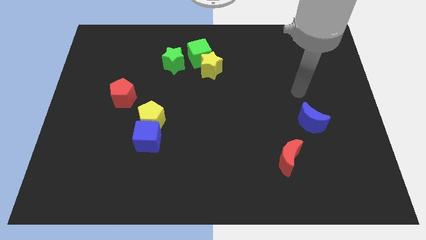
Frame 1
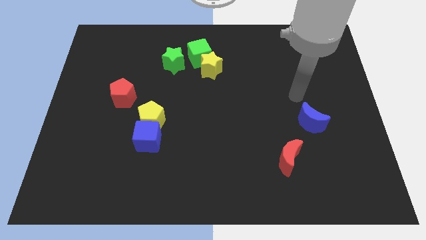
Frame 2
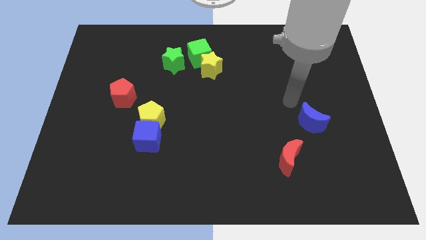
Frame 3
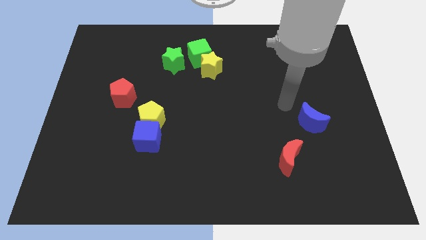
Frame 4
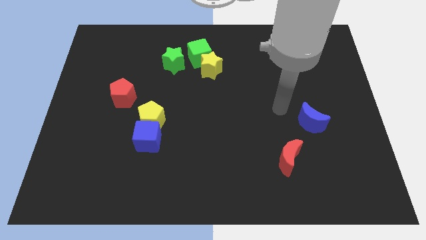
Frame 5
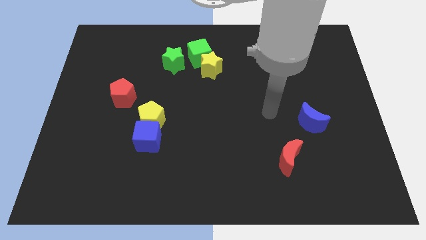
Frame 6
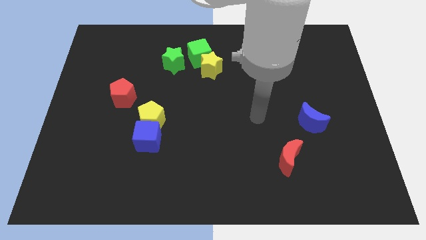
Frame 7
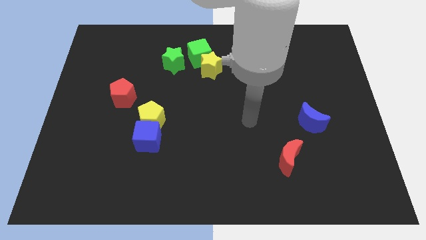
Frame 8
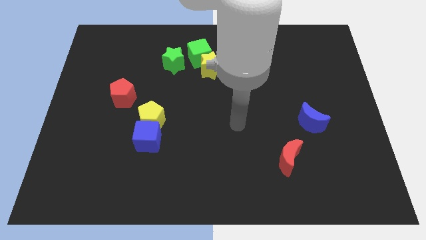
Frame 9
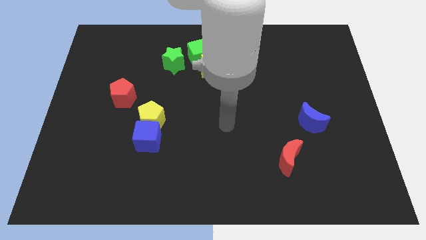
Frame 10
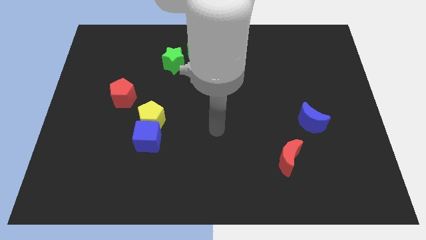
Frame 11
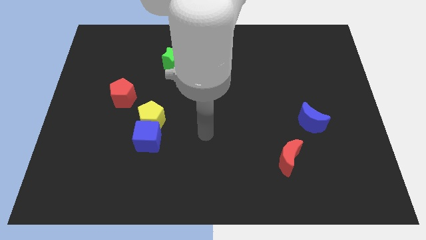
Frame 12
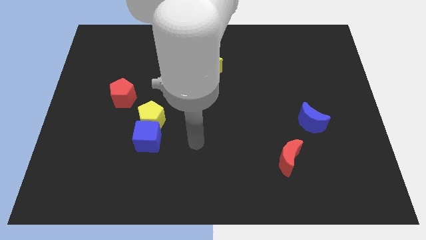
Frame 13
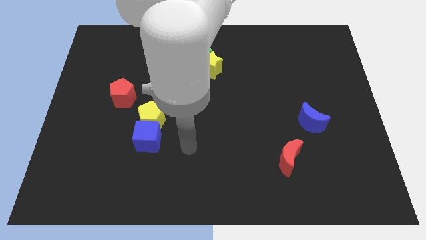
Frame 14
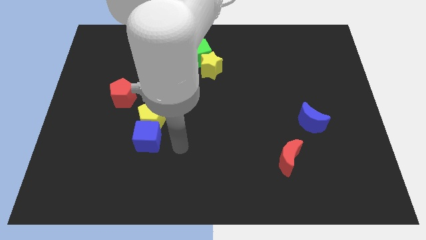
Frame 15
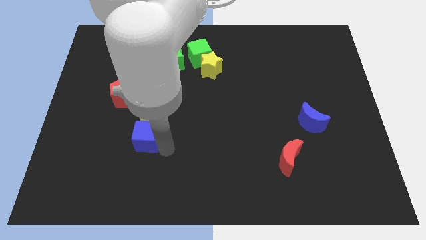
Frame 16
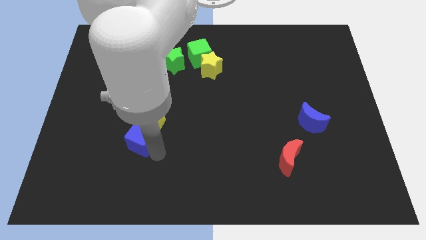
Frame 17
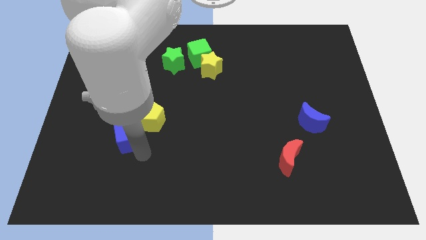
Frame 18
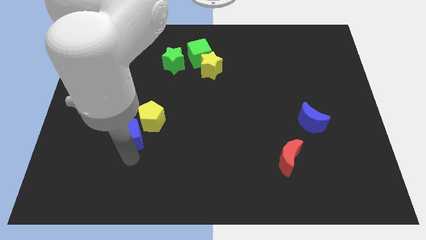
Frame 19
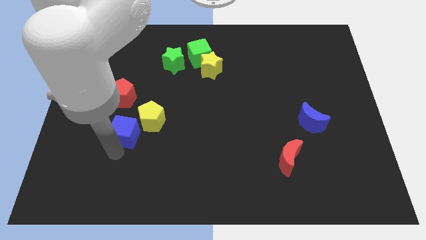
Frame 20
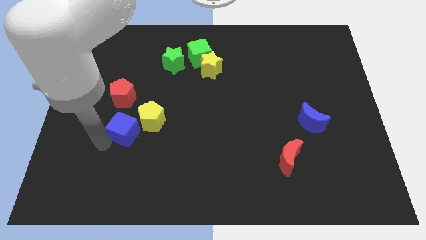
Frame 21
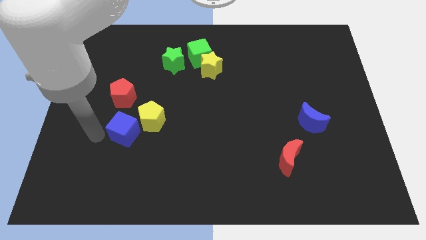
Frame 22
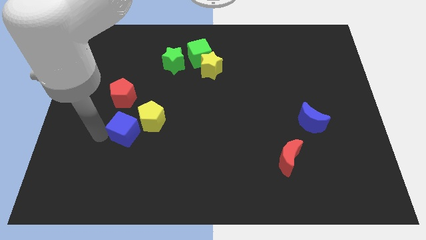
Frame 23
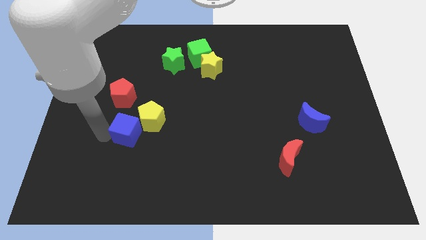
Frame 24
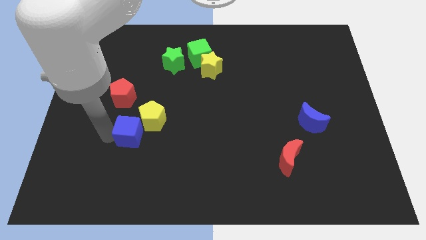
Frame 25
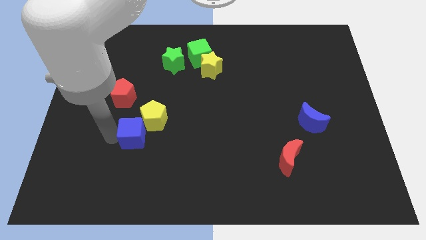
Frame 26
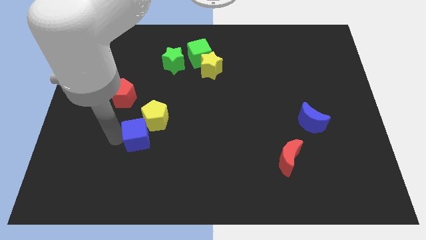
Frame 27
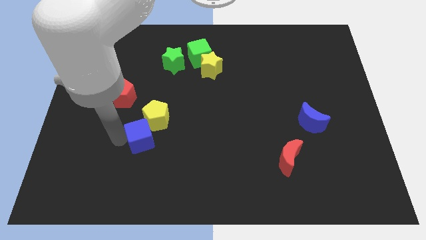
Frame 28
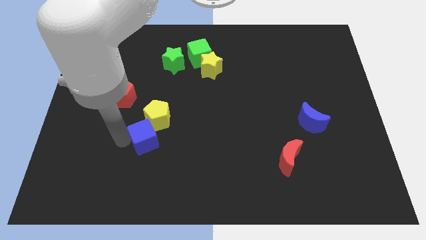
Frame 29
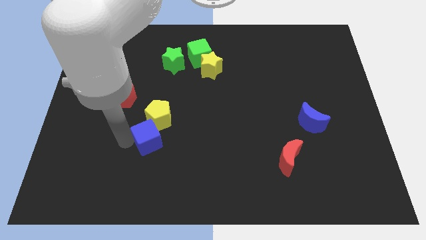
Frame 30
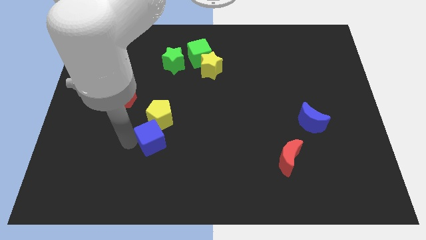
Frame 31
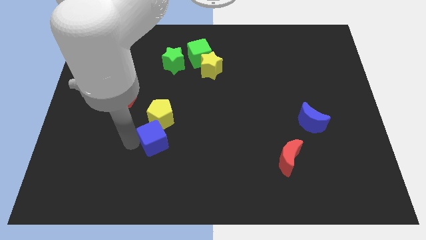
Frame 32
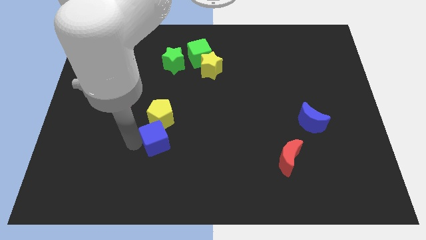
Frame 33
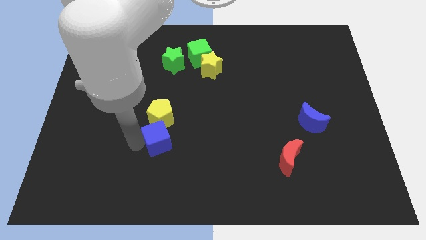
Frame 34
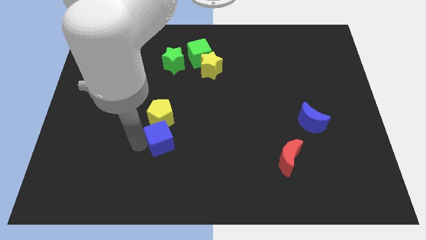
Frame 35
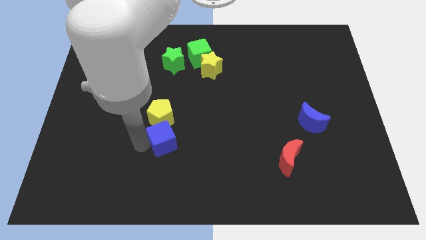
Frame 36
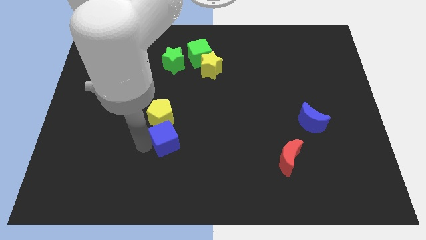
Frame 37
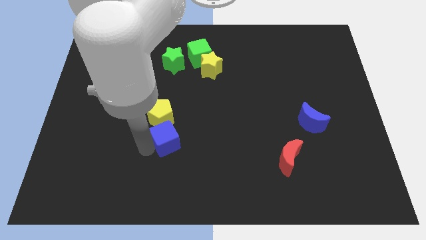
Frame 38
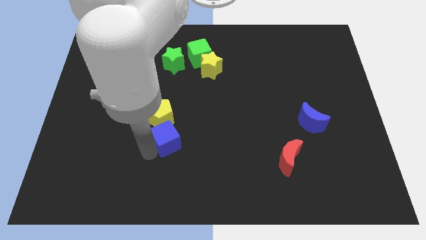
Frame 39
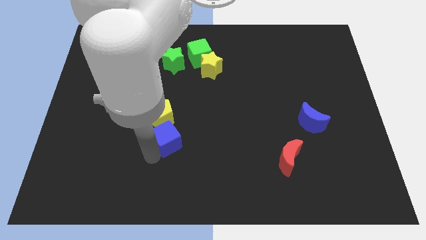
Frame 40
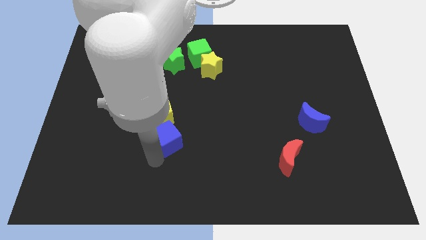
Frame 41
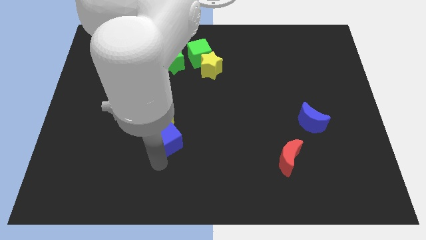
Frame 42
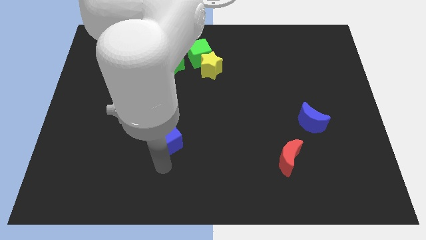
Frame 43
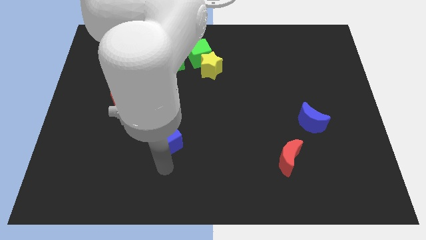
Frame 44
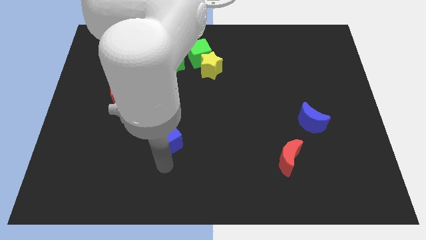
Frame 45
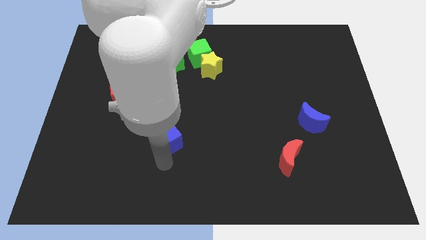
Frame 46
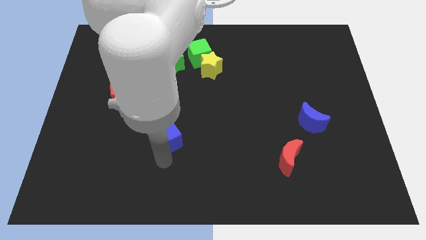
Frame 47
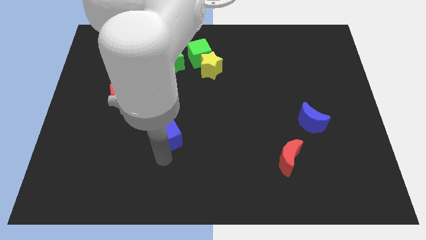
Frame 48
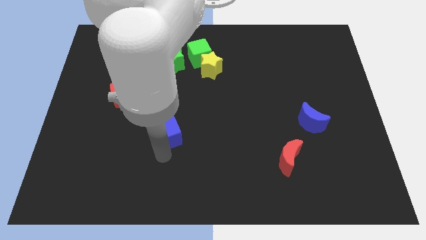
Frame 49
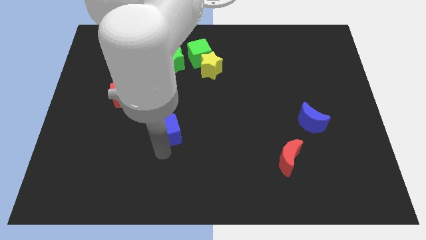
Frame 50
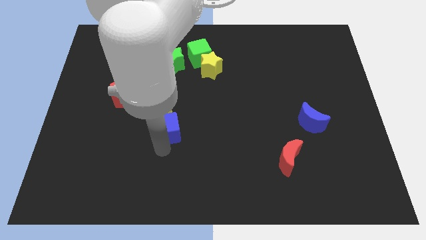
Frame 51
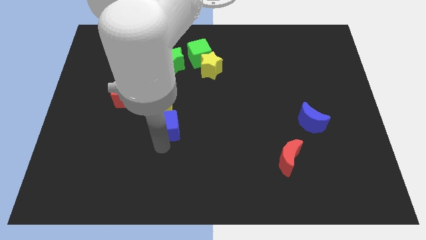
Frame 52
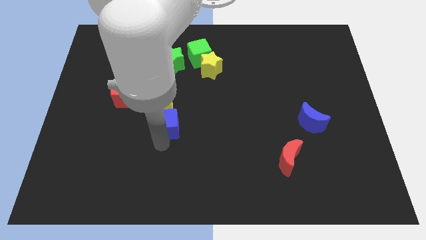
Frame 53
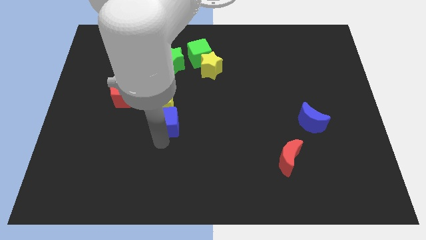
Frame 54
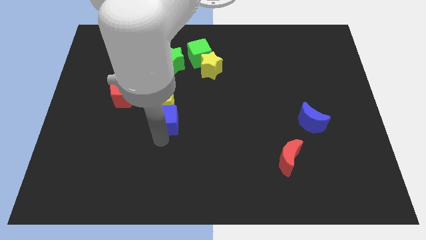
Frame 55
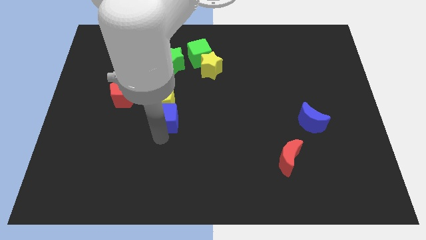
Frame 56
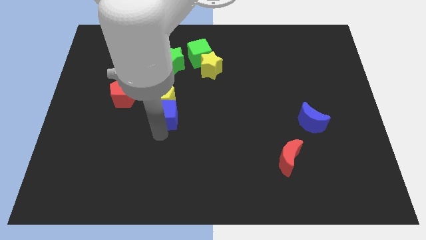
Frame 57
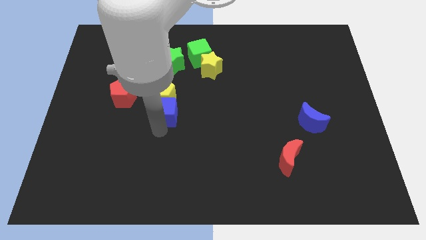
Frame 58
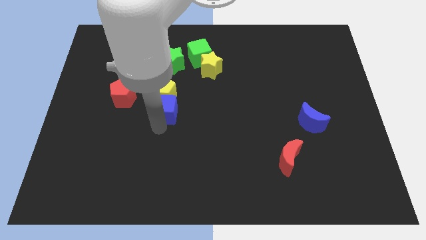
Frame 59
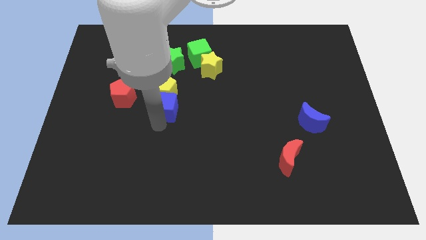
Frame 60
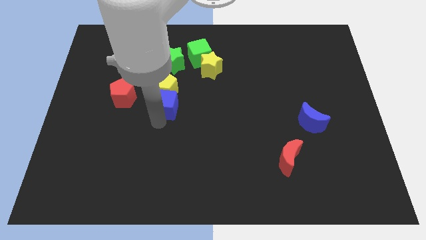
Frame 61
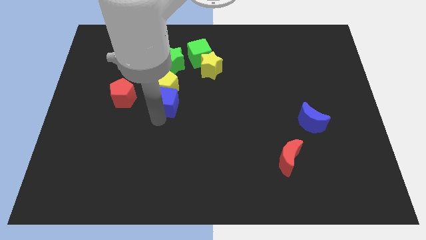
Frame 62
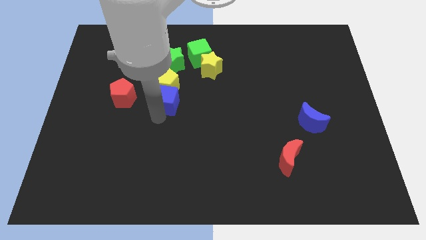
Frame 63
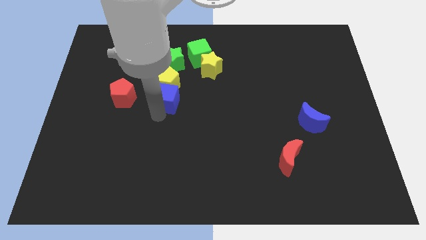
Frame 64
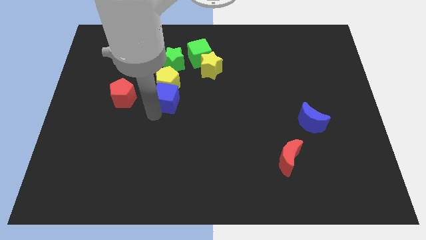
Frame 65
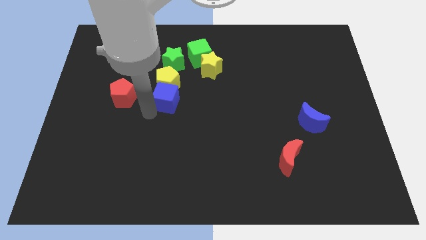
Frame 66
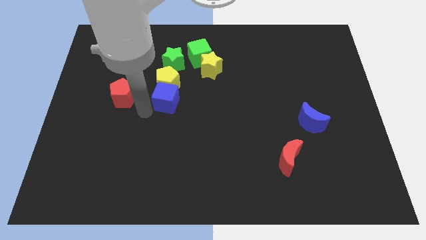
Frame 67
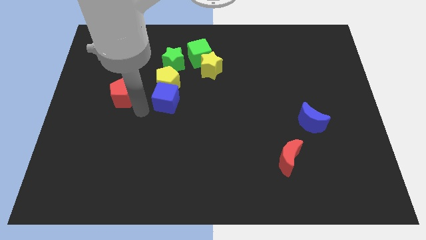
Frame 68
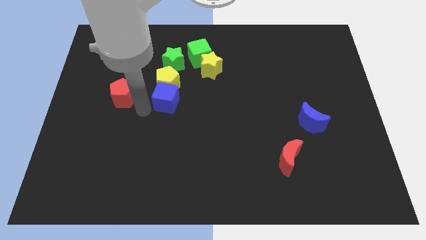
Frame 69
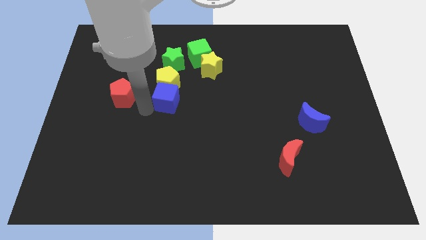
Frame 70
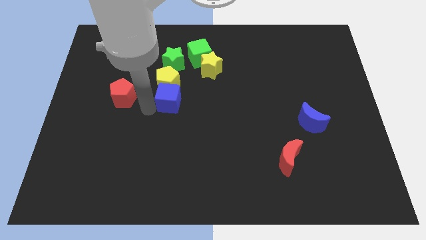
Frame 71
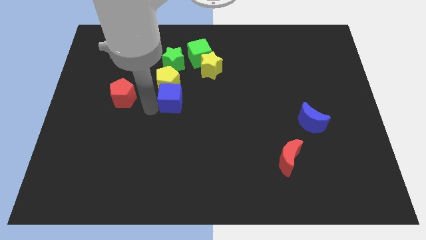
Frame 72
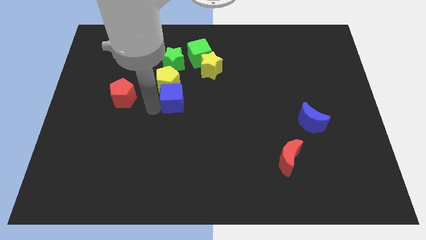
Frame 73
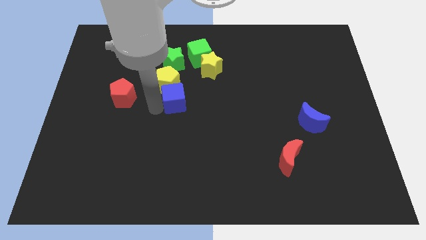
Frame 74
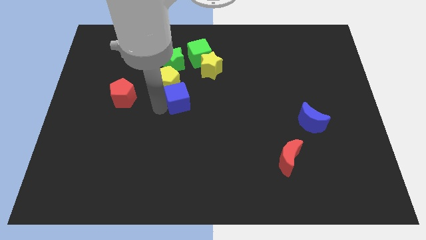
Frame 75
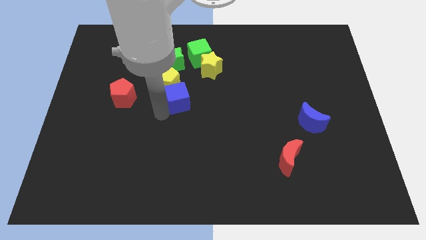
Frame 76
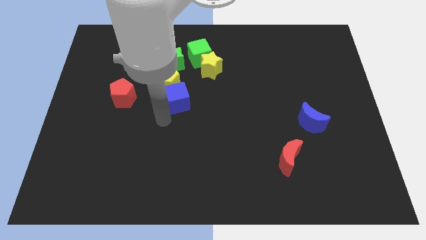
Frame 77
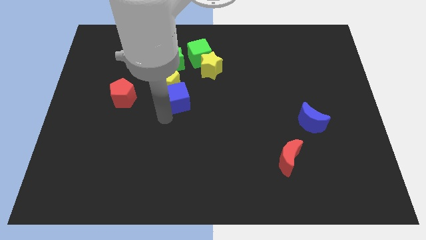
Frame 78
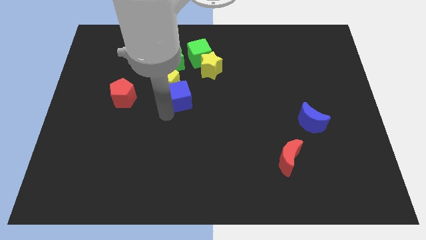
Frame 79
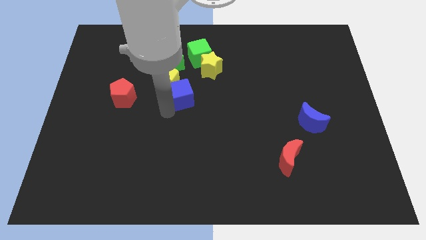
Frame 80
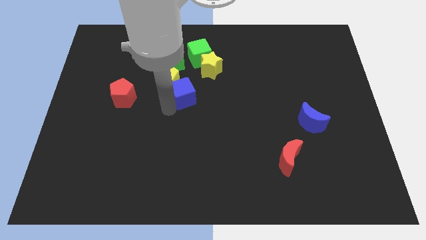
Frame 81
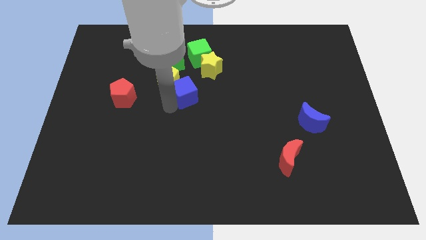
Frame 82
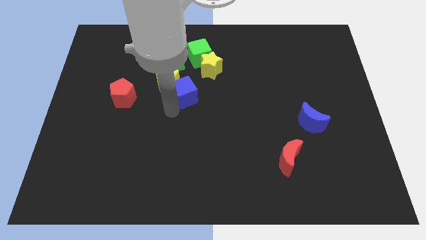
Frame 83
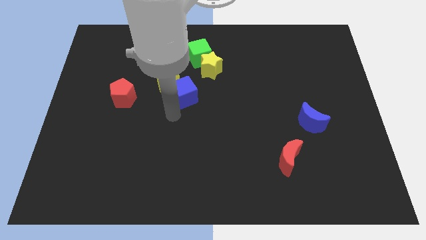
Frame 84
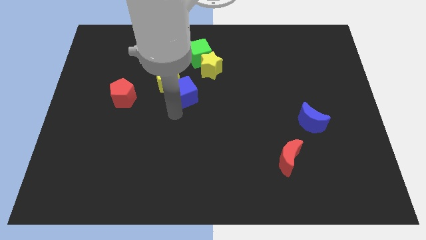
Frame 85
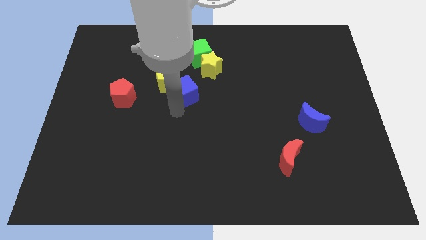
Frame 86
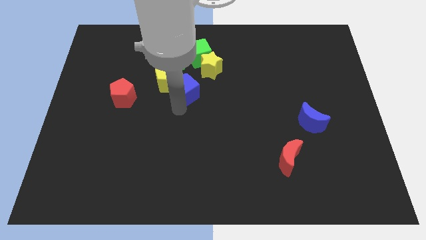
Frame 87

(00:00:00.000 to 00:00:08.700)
put the blue cube diagonally down and to the right of the green star
